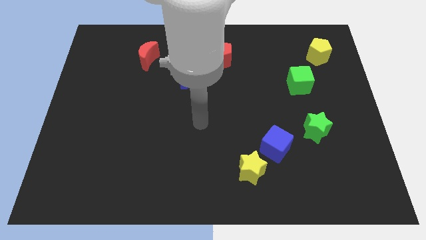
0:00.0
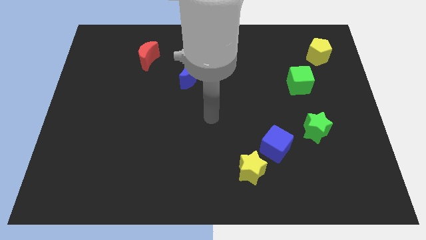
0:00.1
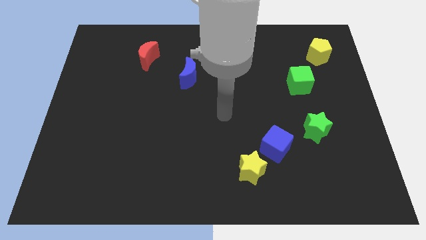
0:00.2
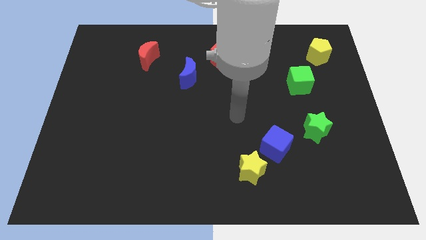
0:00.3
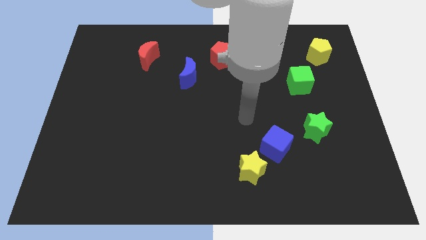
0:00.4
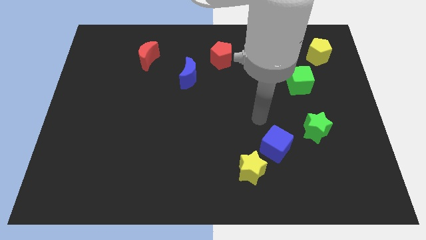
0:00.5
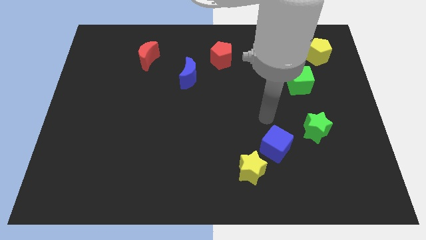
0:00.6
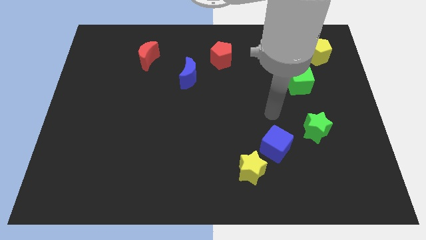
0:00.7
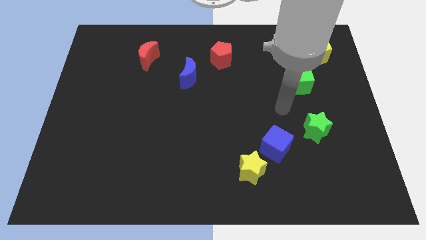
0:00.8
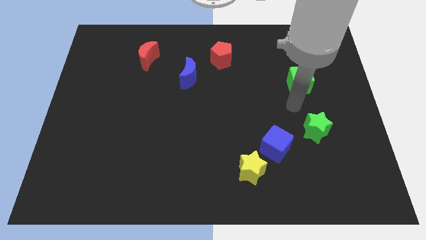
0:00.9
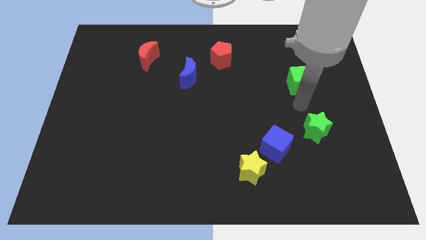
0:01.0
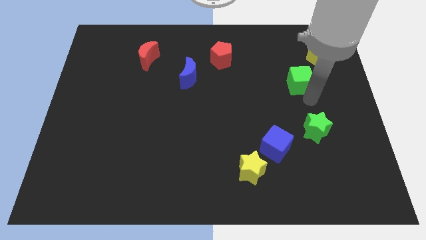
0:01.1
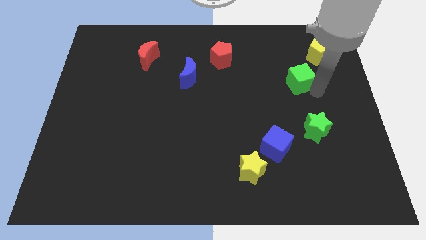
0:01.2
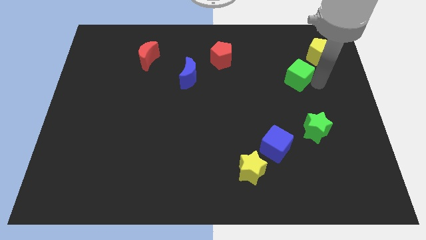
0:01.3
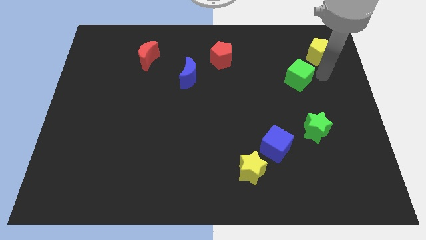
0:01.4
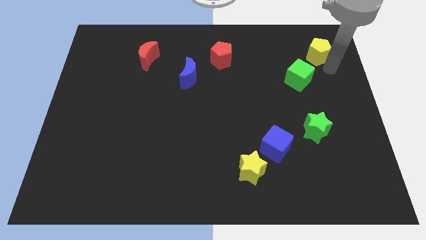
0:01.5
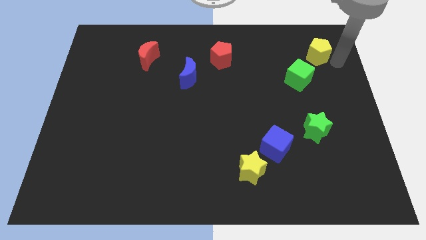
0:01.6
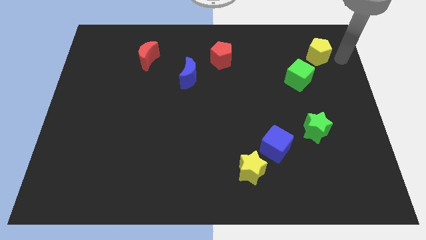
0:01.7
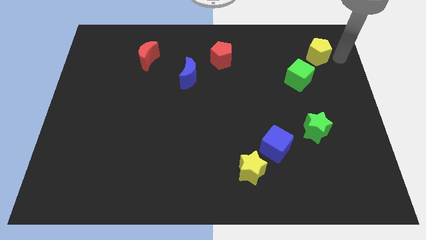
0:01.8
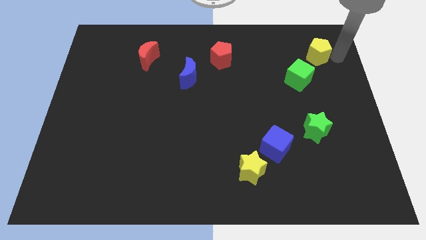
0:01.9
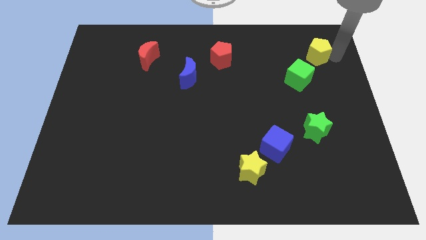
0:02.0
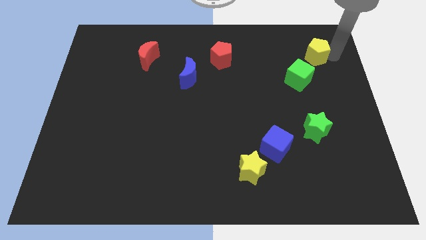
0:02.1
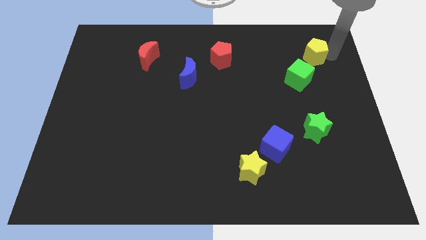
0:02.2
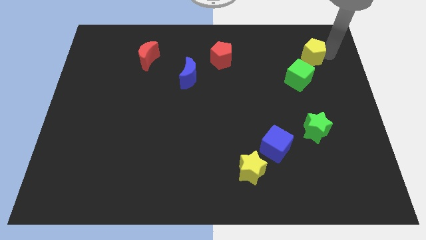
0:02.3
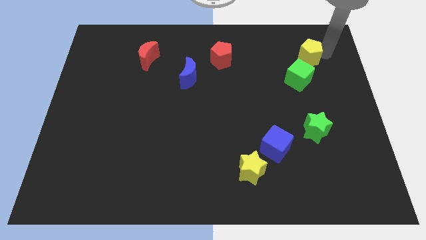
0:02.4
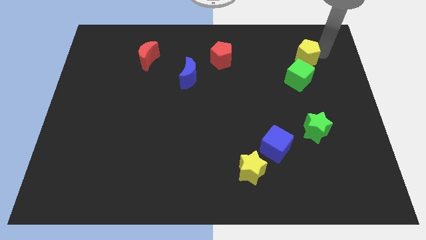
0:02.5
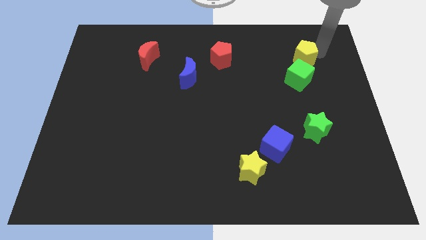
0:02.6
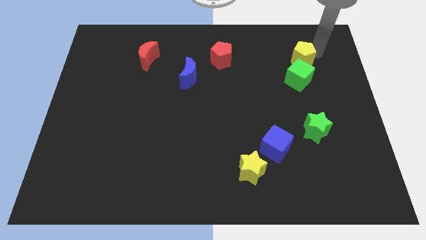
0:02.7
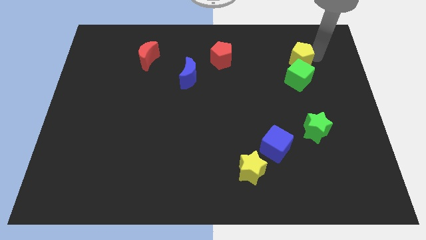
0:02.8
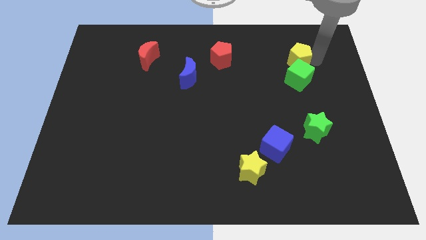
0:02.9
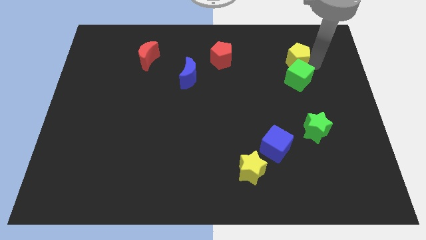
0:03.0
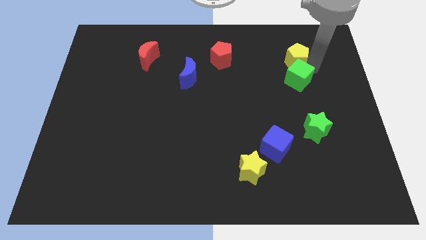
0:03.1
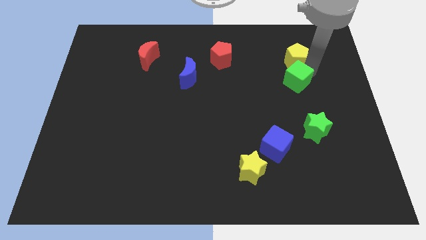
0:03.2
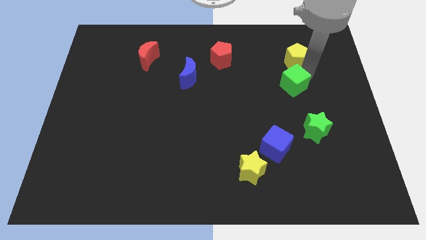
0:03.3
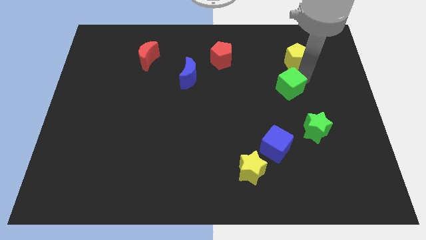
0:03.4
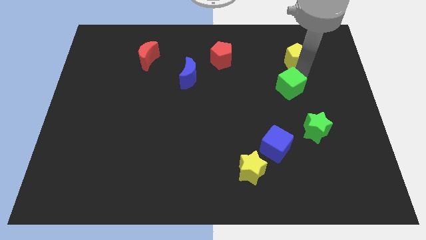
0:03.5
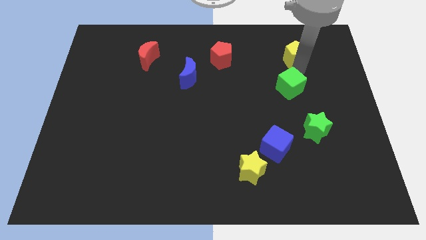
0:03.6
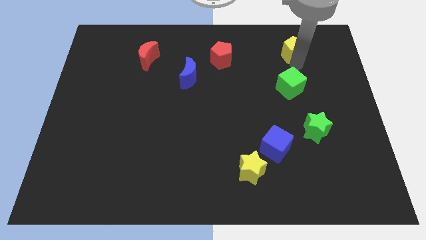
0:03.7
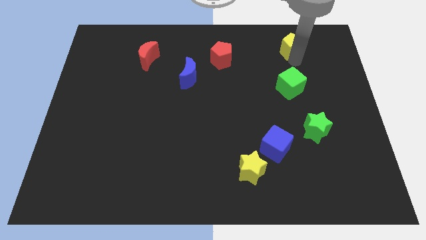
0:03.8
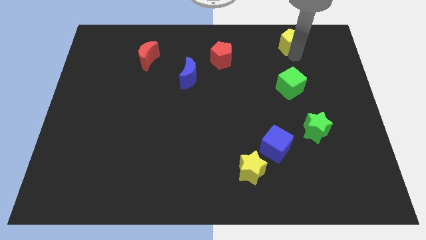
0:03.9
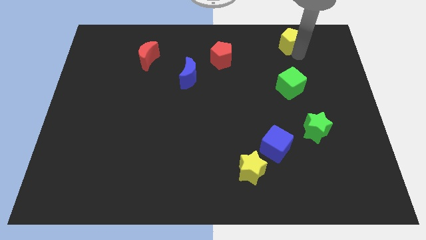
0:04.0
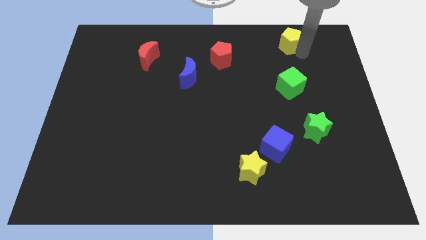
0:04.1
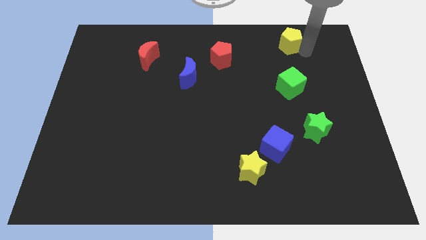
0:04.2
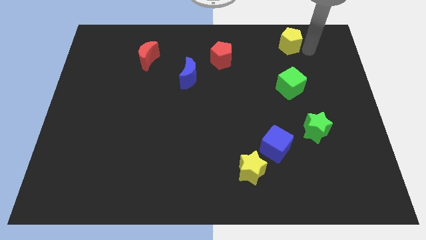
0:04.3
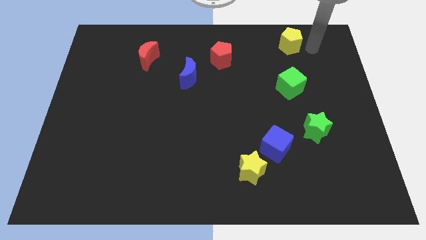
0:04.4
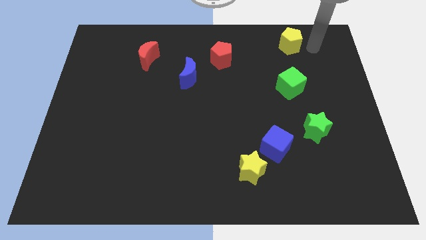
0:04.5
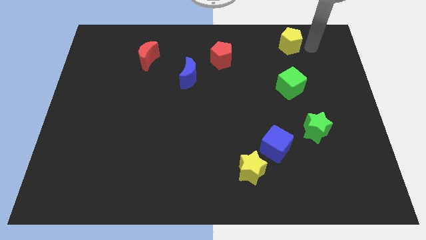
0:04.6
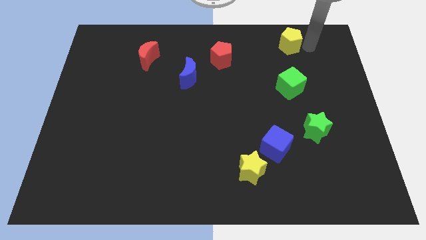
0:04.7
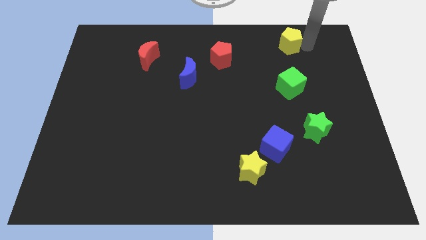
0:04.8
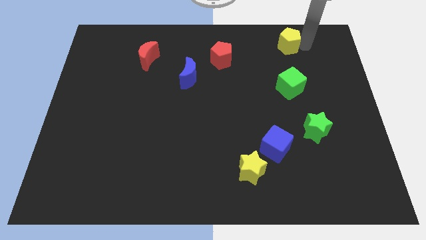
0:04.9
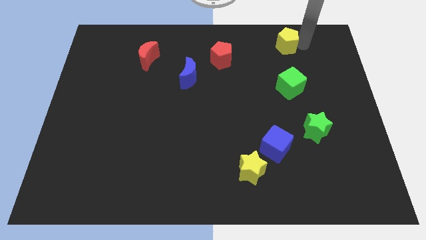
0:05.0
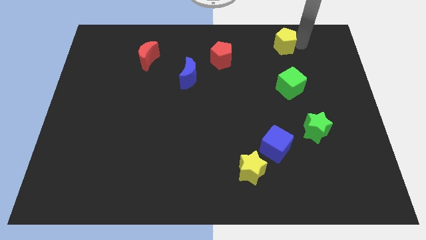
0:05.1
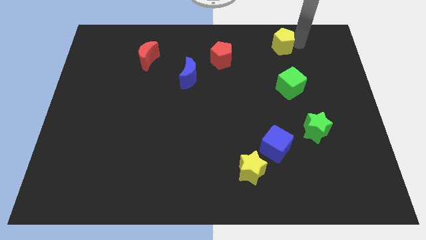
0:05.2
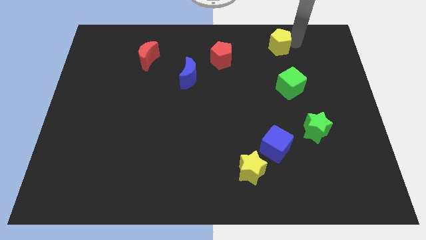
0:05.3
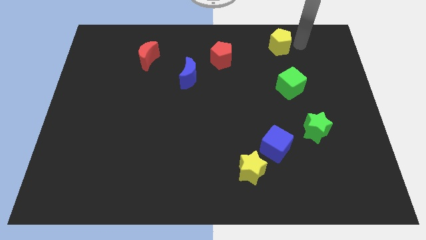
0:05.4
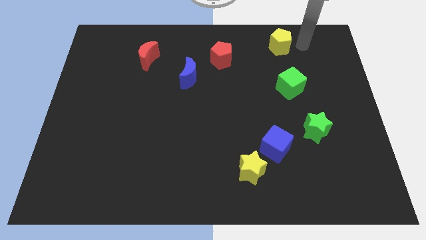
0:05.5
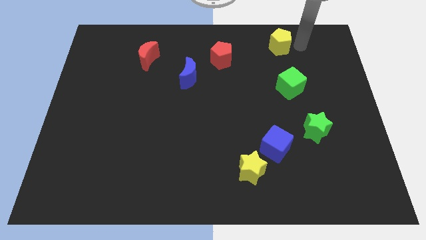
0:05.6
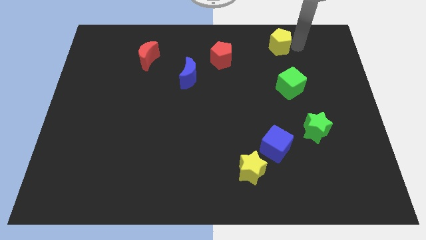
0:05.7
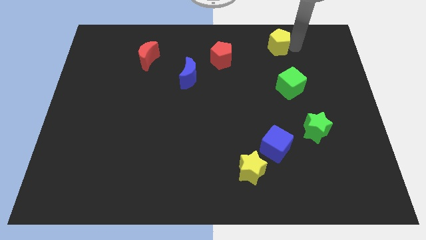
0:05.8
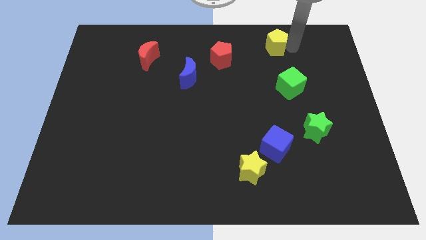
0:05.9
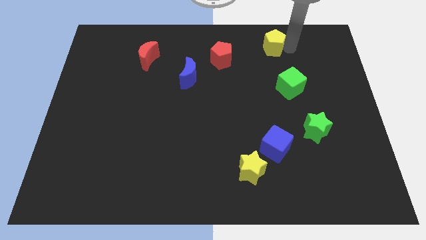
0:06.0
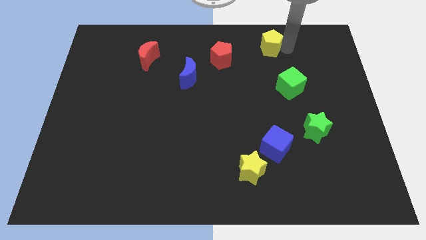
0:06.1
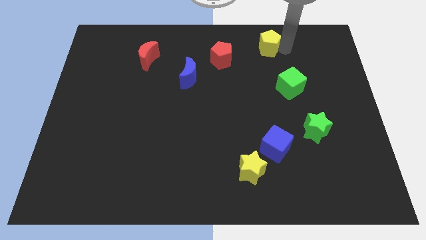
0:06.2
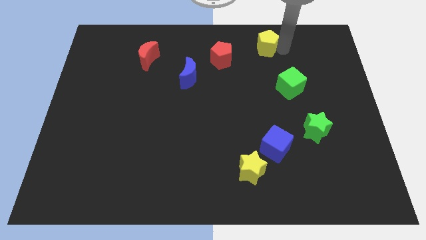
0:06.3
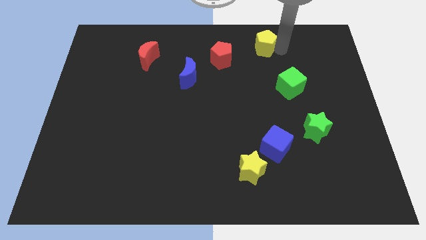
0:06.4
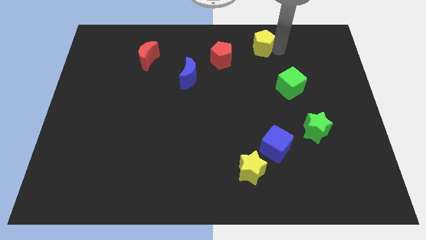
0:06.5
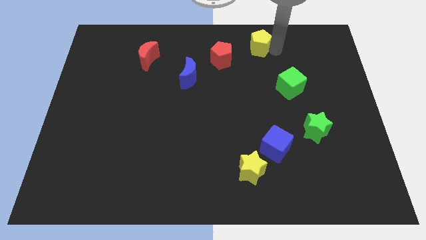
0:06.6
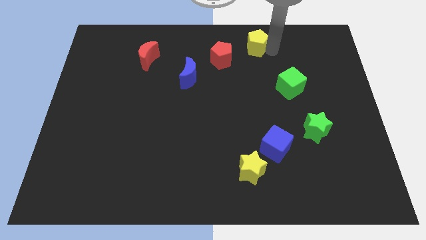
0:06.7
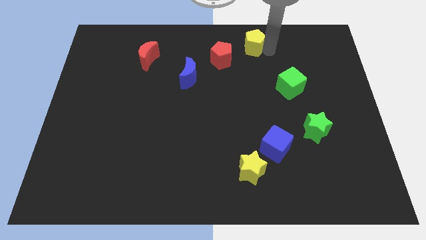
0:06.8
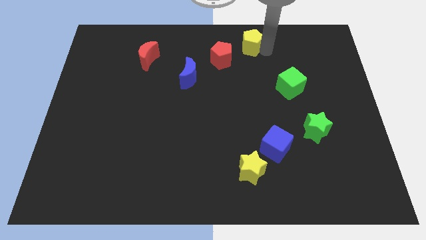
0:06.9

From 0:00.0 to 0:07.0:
slide the yellow pentagon to the top
